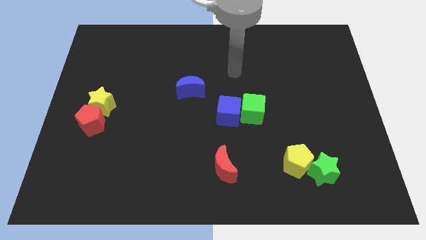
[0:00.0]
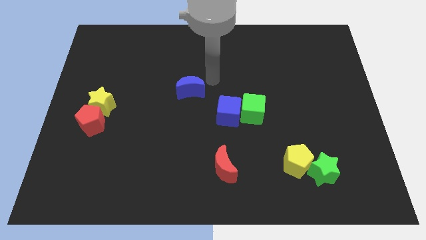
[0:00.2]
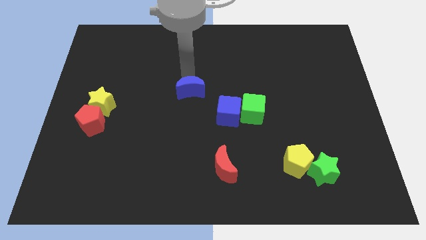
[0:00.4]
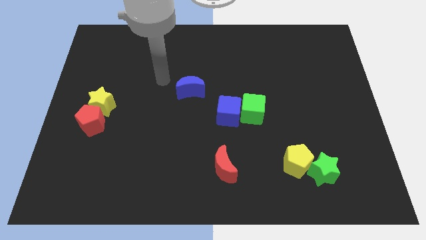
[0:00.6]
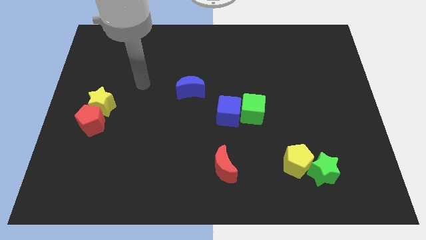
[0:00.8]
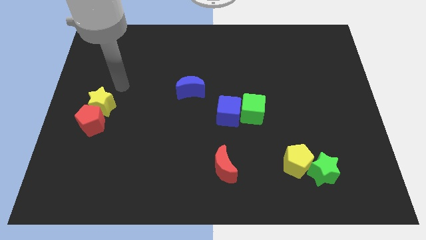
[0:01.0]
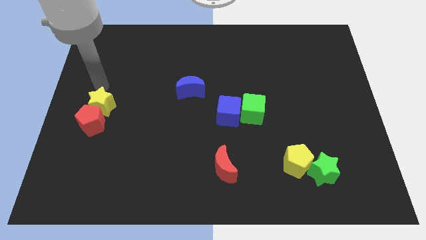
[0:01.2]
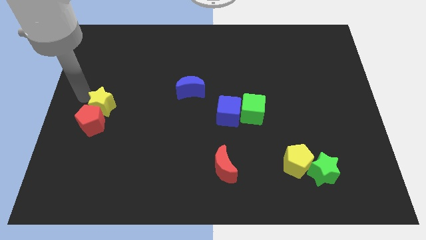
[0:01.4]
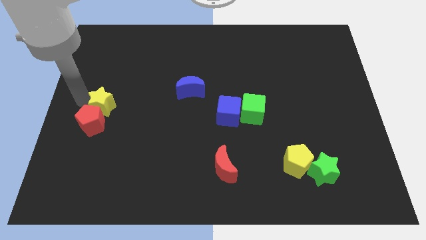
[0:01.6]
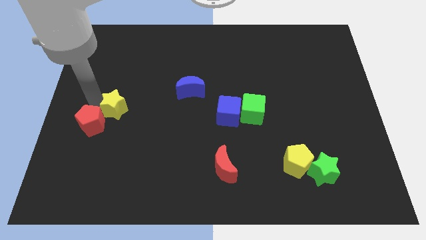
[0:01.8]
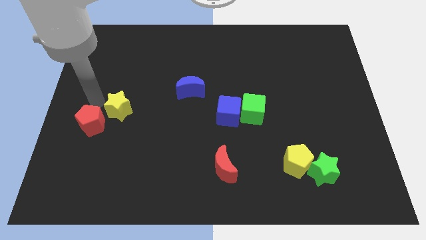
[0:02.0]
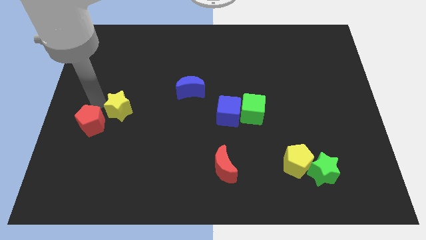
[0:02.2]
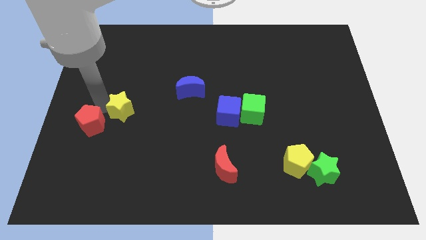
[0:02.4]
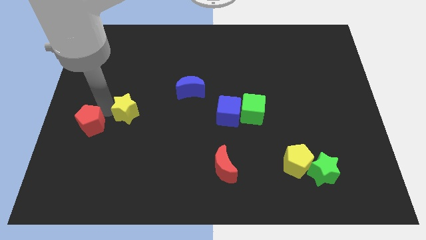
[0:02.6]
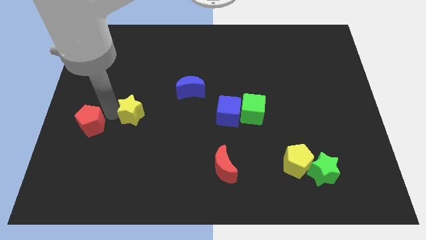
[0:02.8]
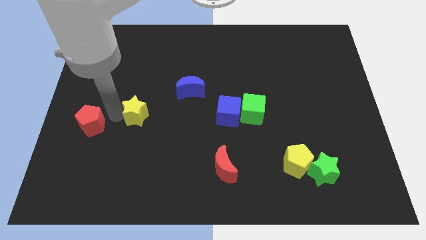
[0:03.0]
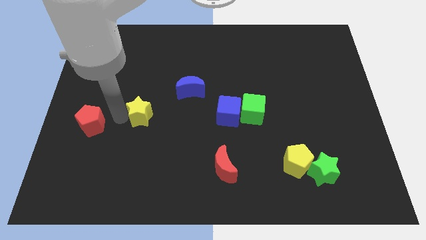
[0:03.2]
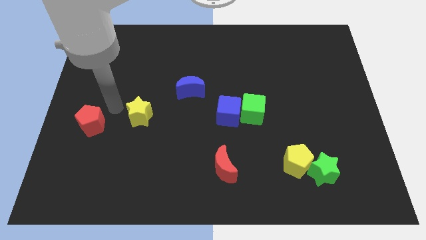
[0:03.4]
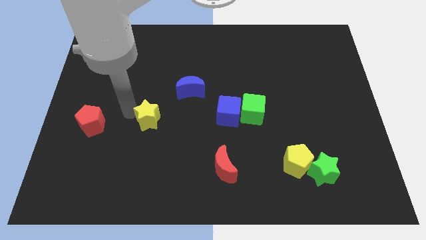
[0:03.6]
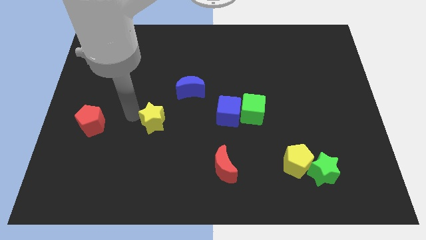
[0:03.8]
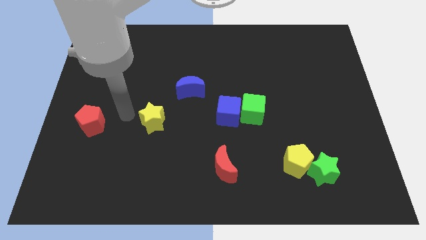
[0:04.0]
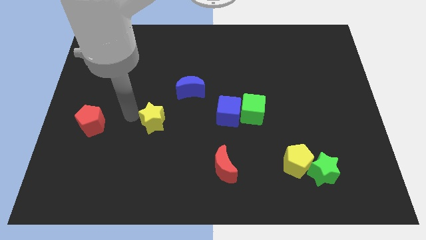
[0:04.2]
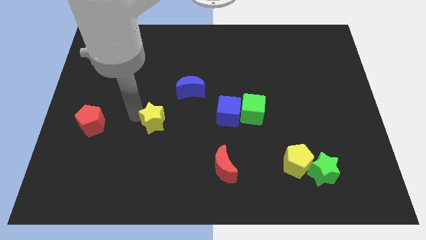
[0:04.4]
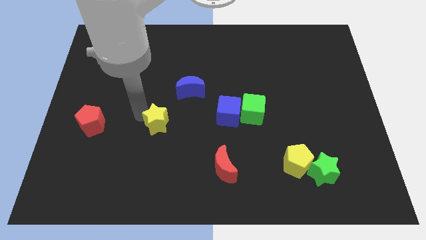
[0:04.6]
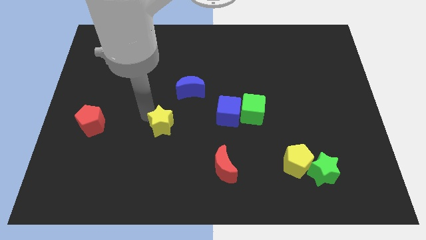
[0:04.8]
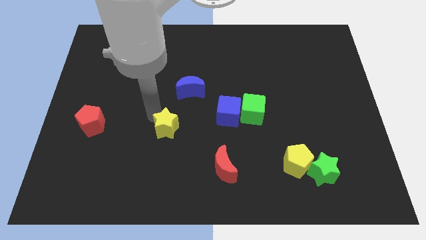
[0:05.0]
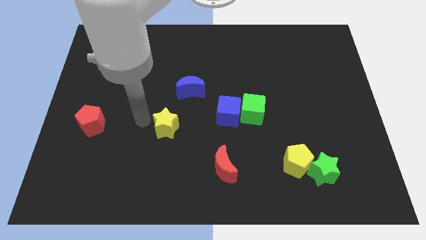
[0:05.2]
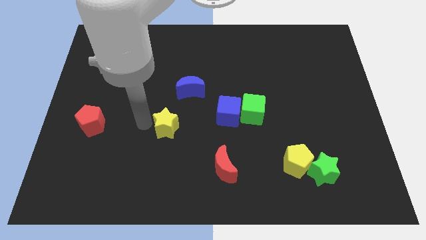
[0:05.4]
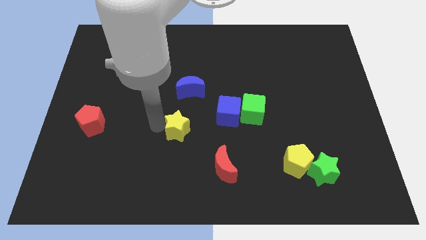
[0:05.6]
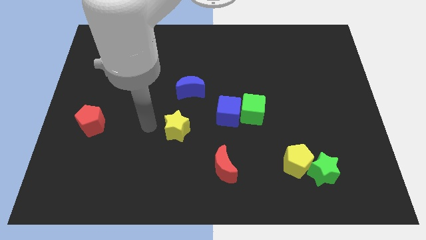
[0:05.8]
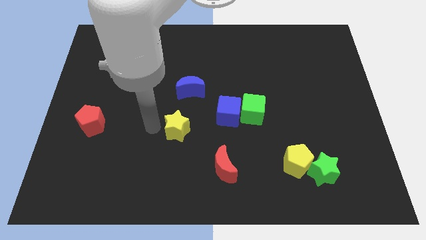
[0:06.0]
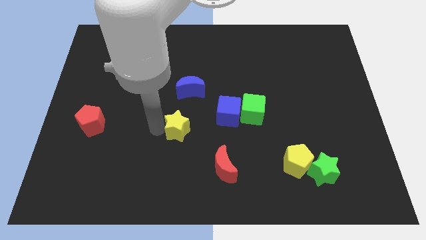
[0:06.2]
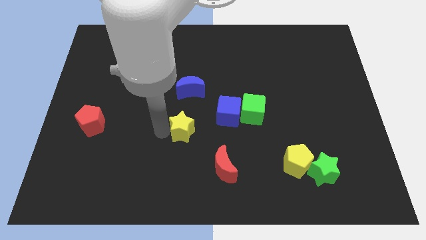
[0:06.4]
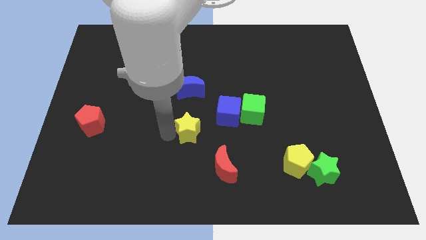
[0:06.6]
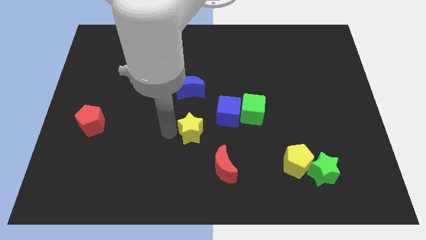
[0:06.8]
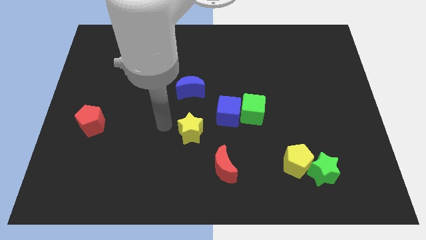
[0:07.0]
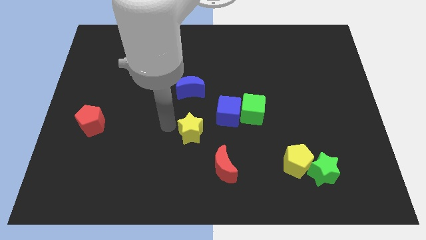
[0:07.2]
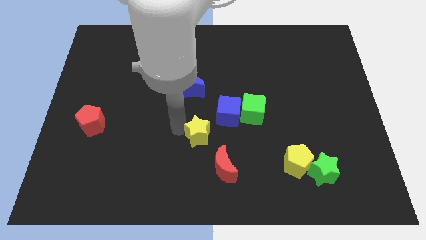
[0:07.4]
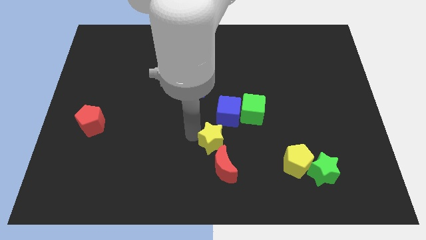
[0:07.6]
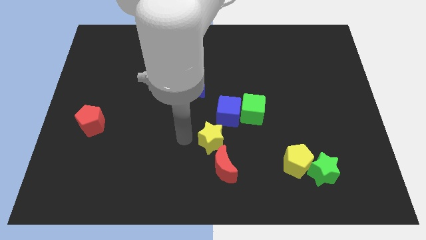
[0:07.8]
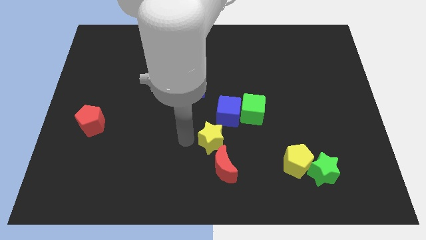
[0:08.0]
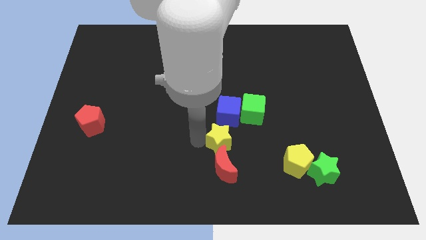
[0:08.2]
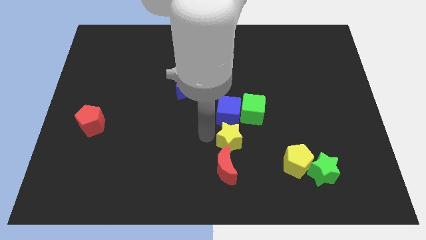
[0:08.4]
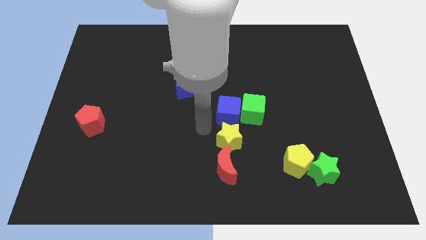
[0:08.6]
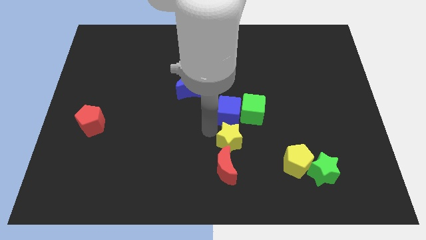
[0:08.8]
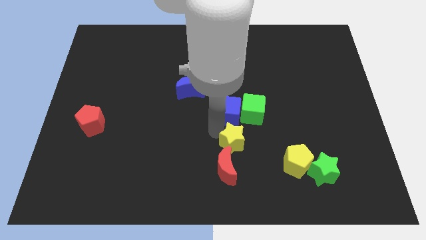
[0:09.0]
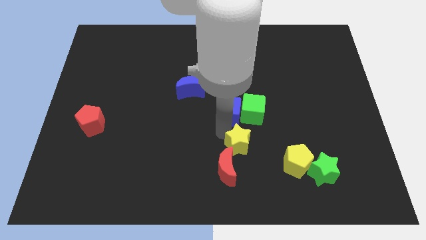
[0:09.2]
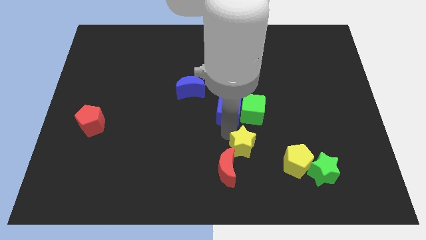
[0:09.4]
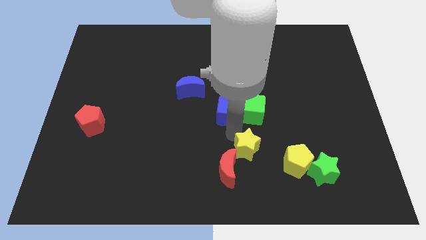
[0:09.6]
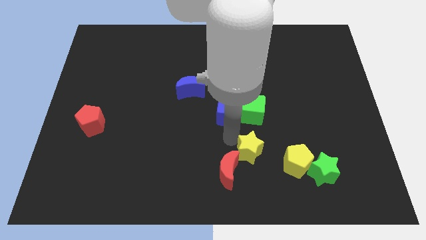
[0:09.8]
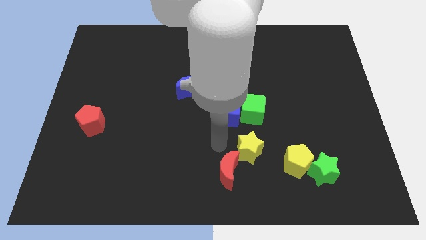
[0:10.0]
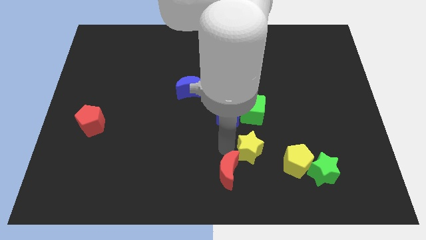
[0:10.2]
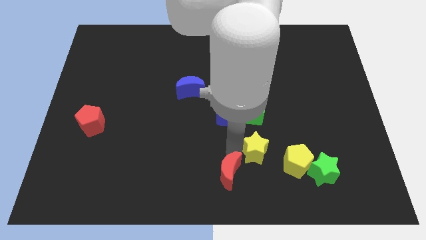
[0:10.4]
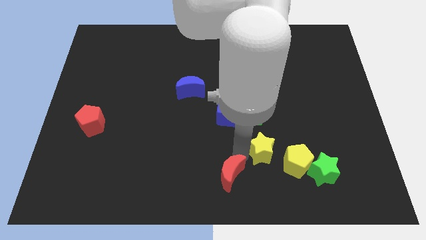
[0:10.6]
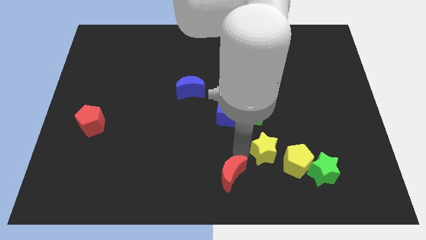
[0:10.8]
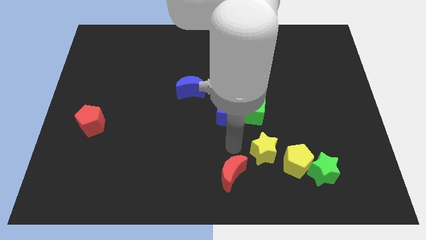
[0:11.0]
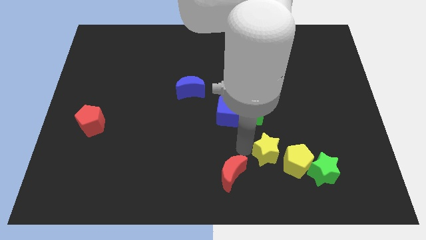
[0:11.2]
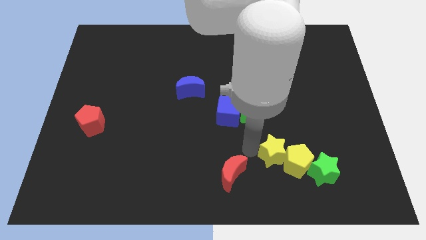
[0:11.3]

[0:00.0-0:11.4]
put the yellow star towards the yellow pentagon

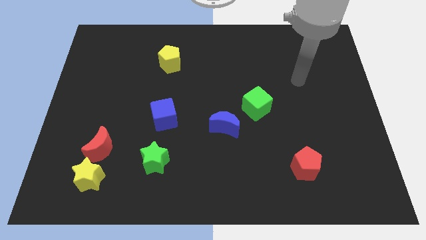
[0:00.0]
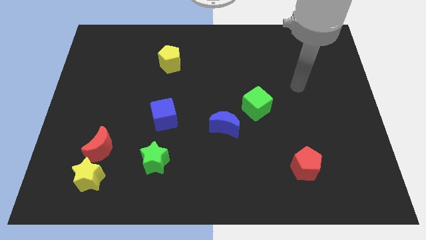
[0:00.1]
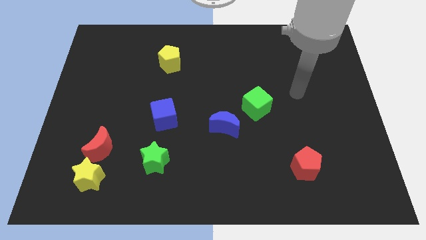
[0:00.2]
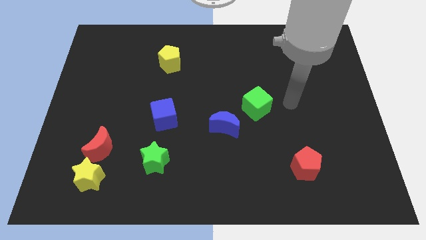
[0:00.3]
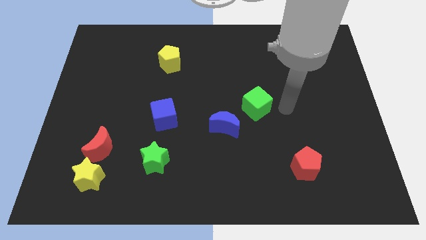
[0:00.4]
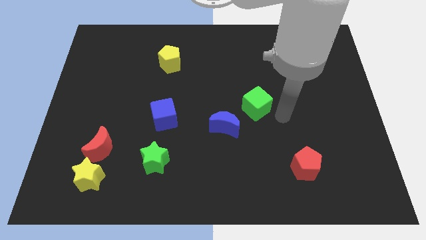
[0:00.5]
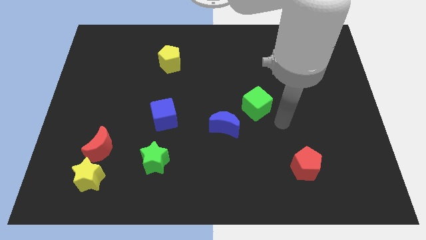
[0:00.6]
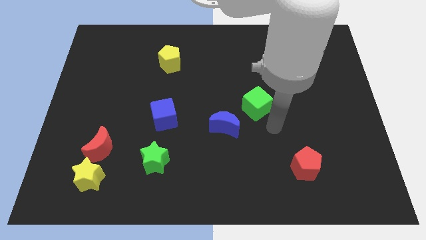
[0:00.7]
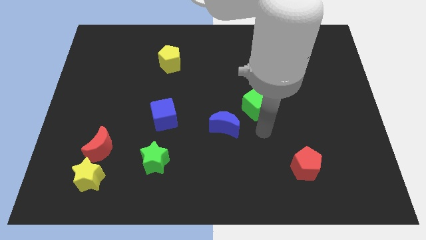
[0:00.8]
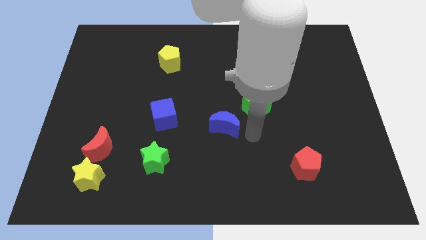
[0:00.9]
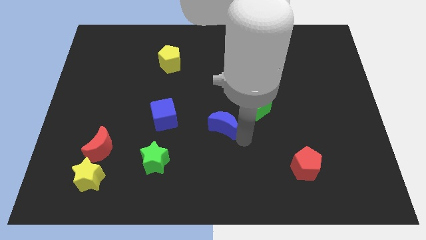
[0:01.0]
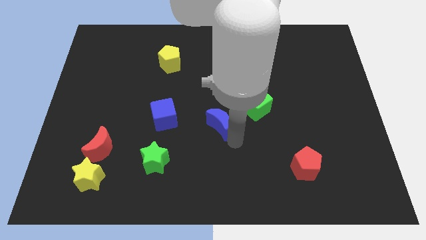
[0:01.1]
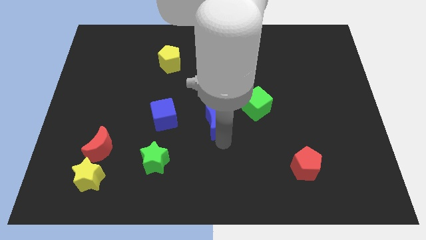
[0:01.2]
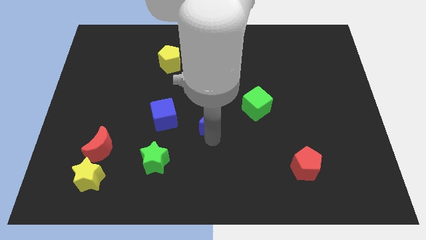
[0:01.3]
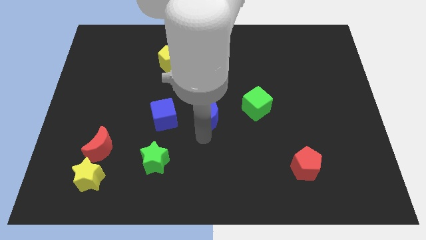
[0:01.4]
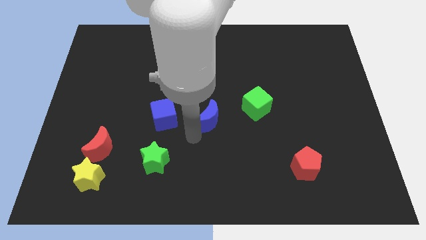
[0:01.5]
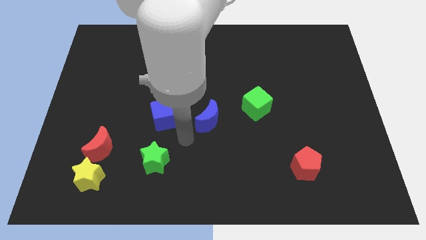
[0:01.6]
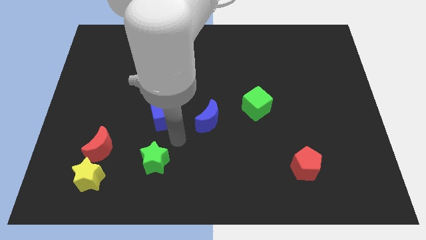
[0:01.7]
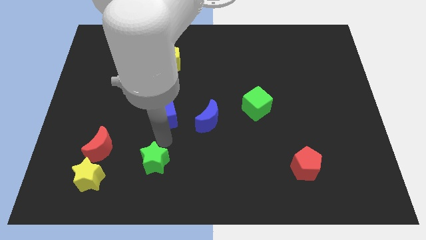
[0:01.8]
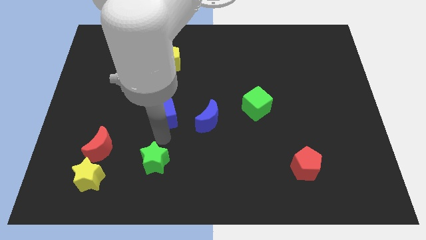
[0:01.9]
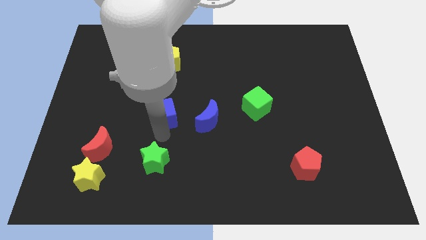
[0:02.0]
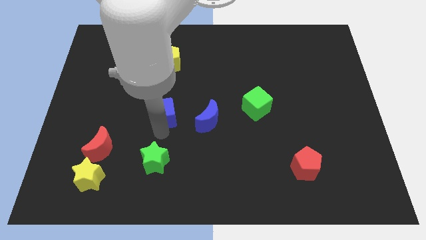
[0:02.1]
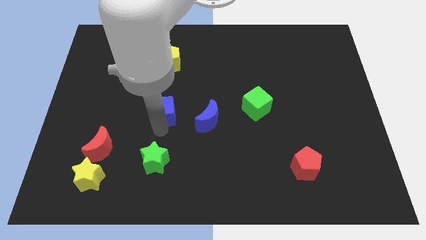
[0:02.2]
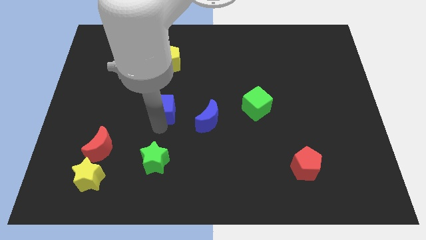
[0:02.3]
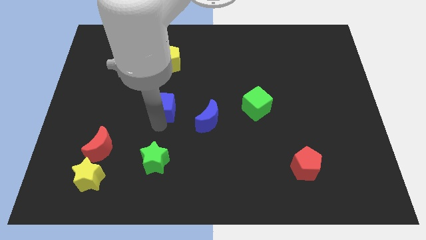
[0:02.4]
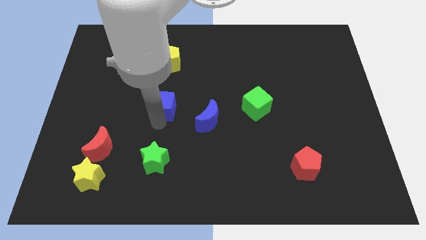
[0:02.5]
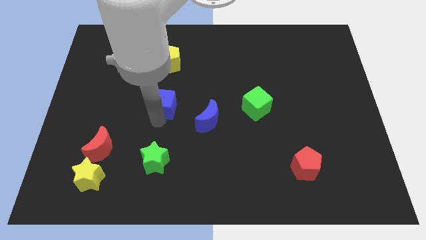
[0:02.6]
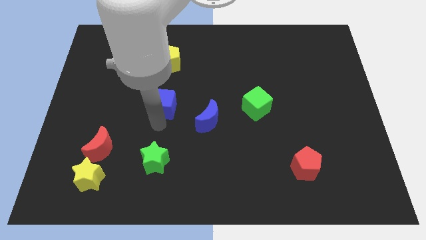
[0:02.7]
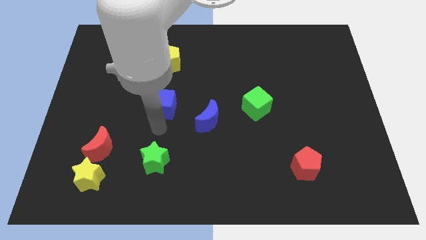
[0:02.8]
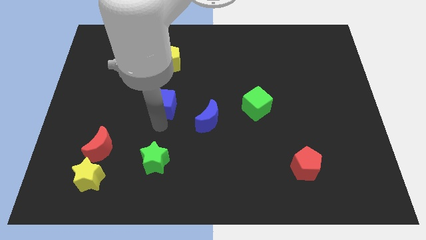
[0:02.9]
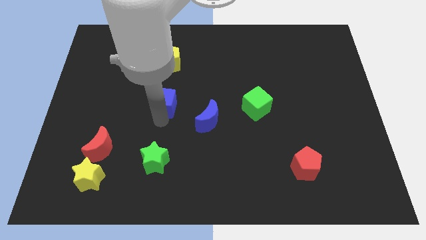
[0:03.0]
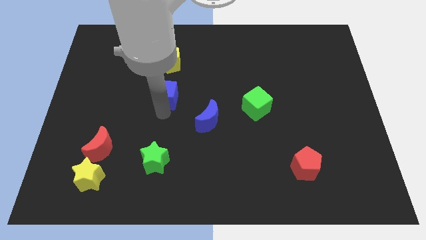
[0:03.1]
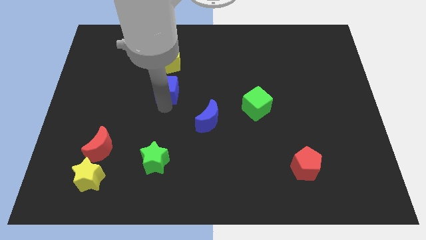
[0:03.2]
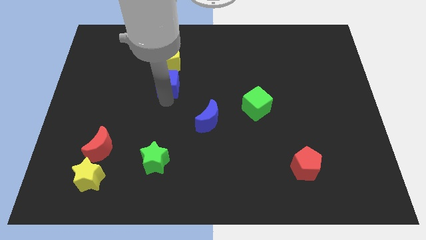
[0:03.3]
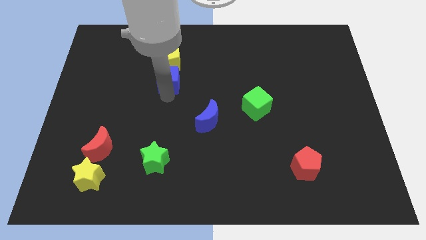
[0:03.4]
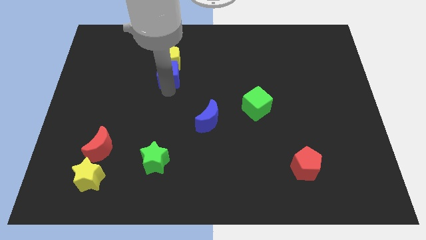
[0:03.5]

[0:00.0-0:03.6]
move the blue cube next to the yellow pentagon
